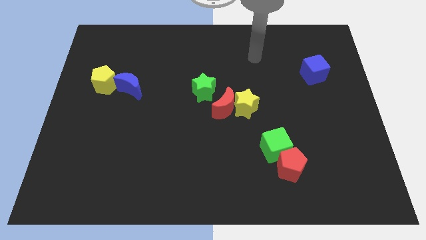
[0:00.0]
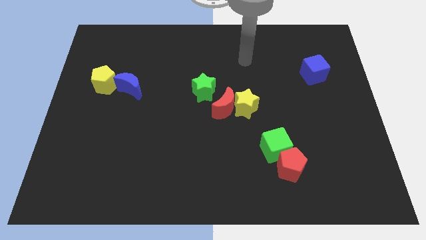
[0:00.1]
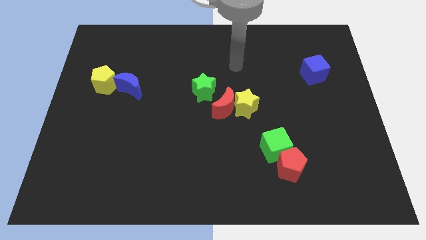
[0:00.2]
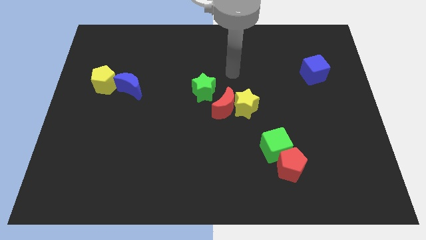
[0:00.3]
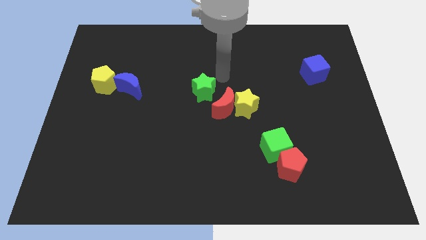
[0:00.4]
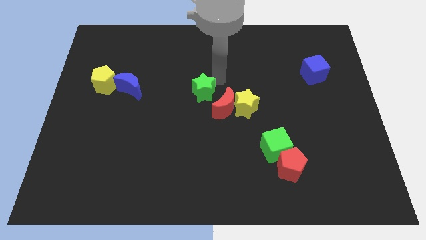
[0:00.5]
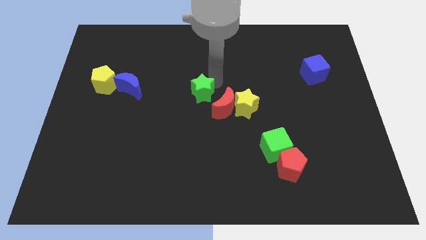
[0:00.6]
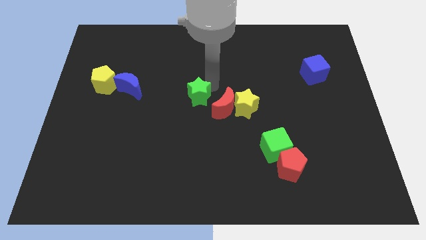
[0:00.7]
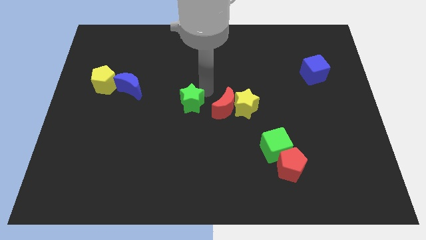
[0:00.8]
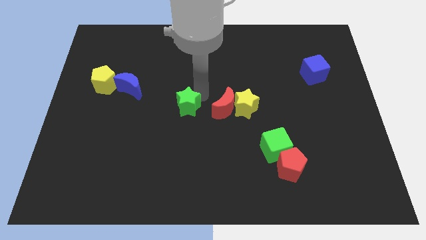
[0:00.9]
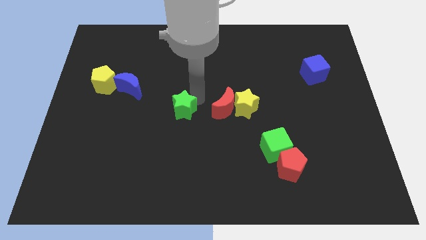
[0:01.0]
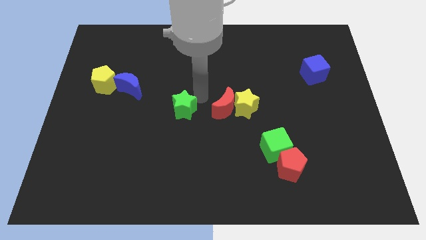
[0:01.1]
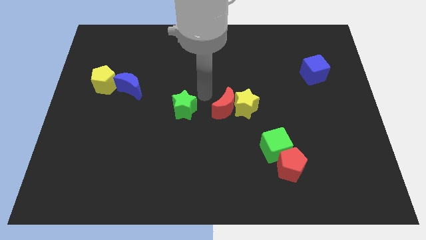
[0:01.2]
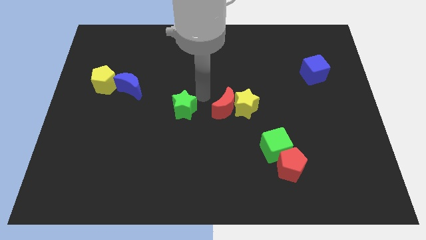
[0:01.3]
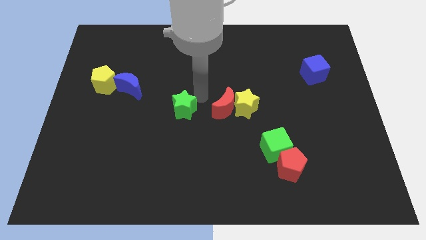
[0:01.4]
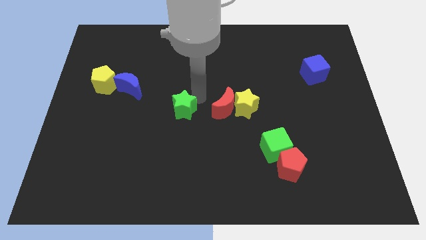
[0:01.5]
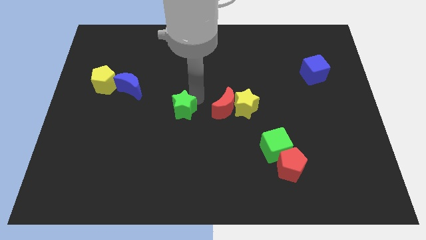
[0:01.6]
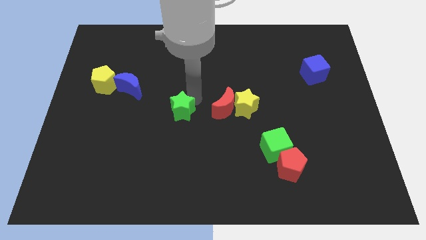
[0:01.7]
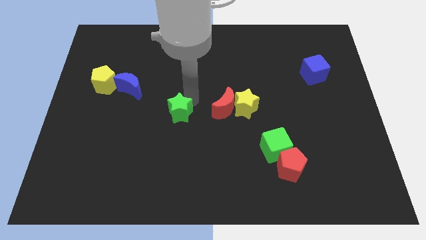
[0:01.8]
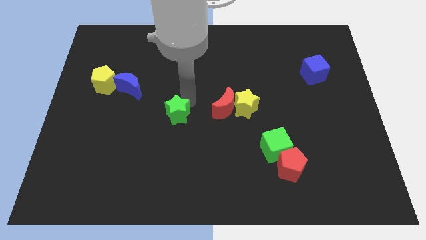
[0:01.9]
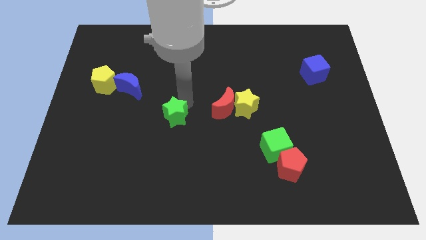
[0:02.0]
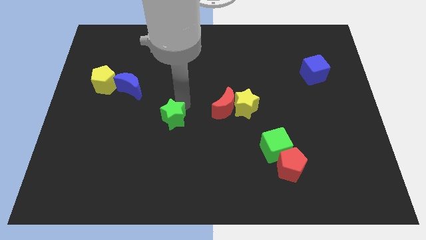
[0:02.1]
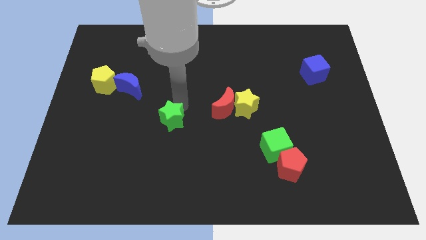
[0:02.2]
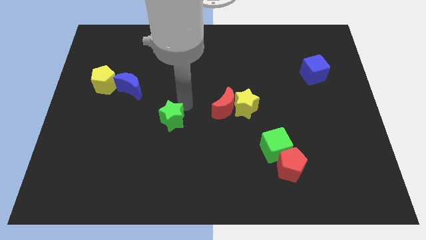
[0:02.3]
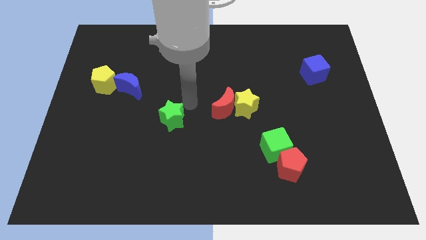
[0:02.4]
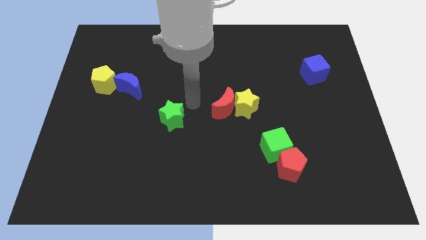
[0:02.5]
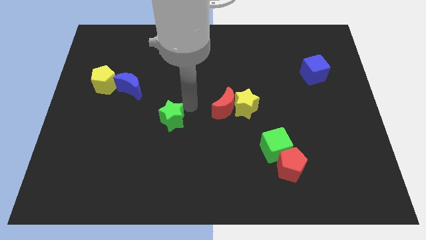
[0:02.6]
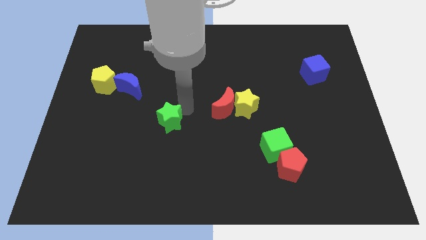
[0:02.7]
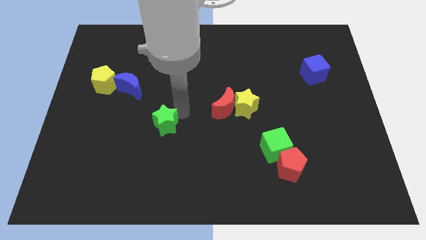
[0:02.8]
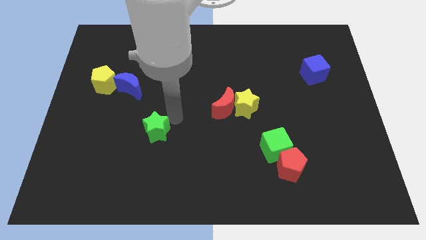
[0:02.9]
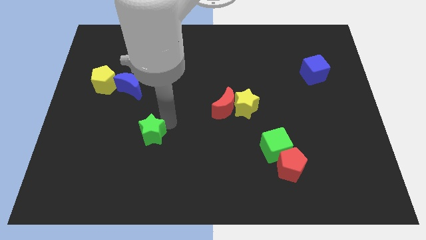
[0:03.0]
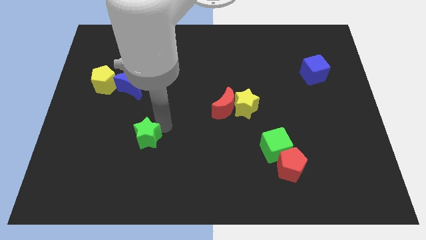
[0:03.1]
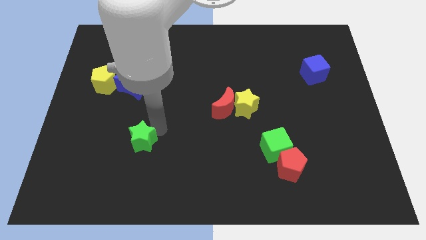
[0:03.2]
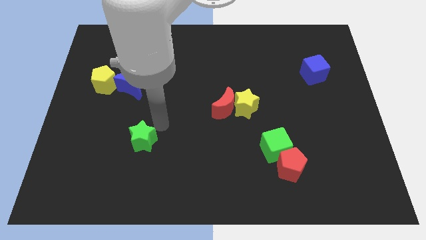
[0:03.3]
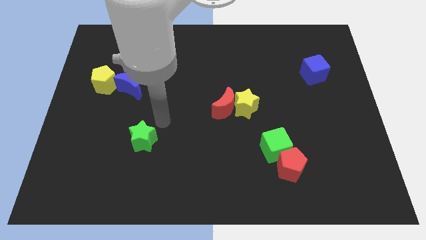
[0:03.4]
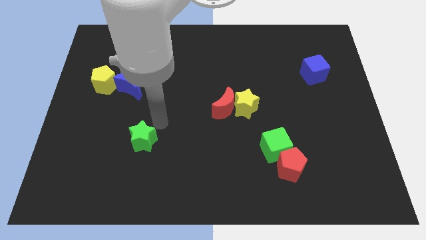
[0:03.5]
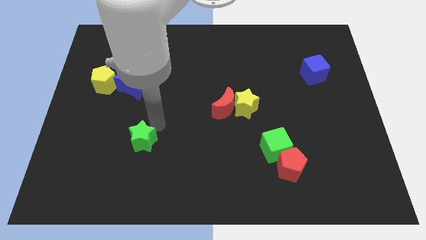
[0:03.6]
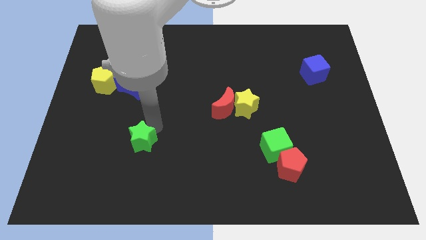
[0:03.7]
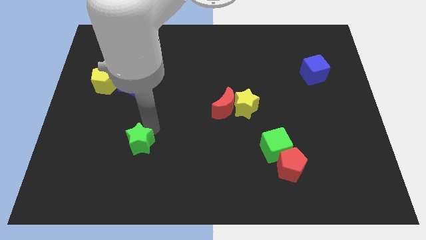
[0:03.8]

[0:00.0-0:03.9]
push the green star down and to the left

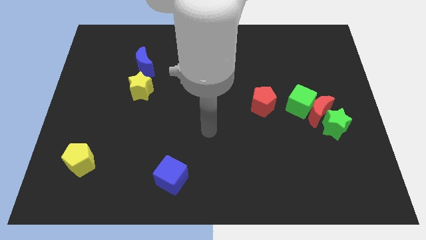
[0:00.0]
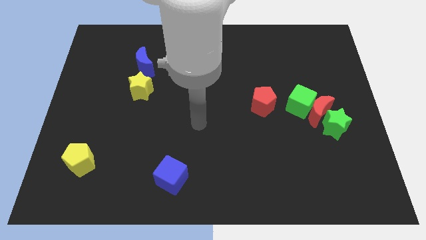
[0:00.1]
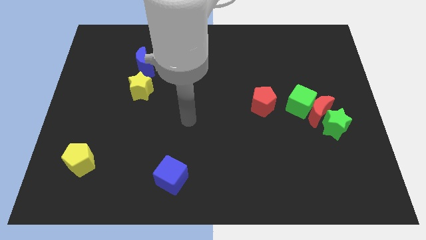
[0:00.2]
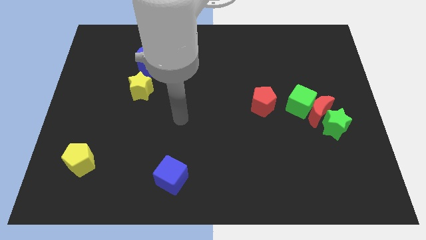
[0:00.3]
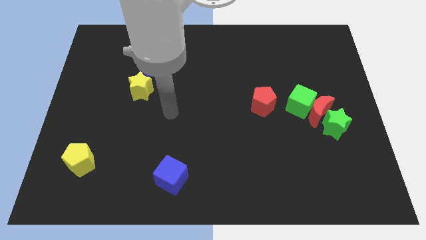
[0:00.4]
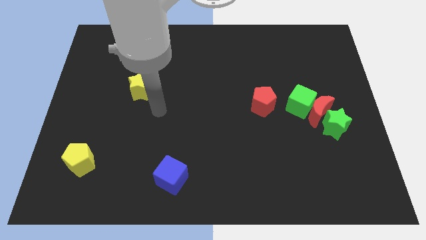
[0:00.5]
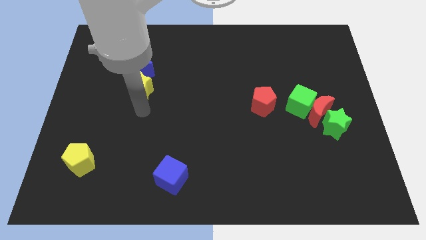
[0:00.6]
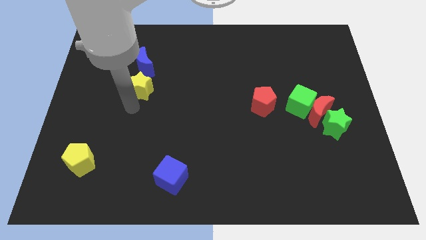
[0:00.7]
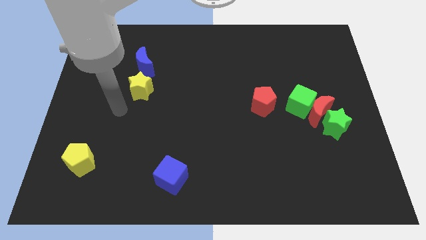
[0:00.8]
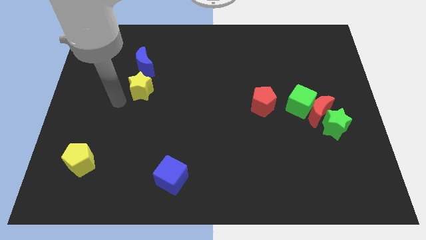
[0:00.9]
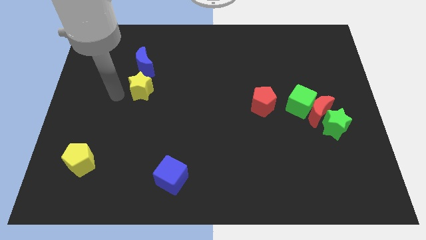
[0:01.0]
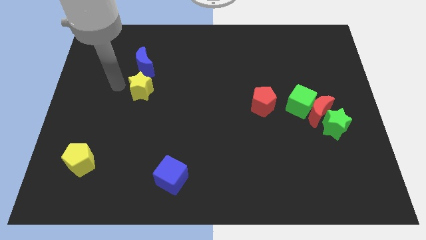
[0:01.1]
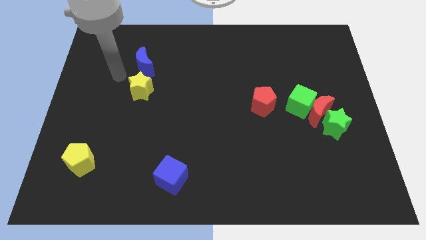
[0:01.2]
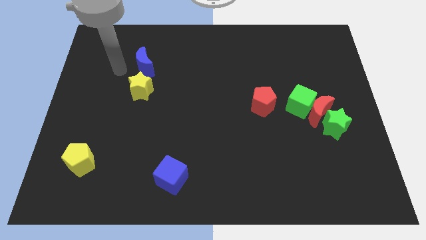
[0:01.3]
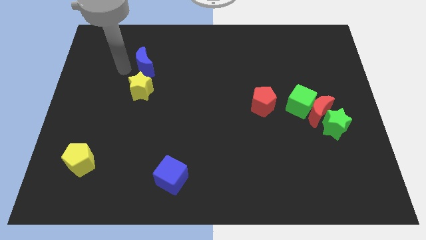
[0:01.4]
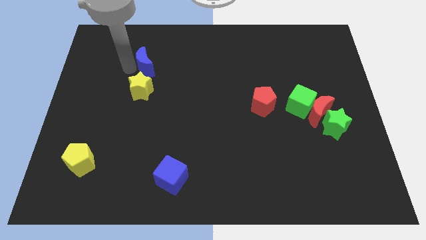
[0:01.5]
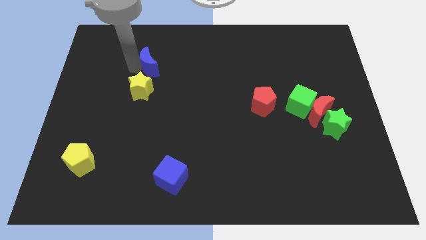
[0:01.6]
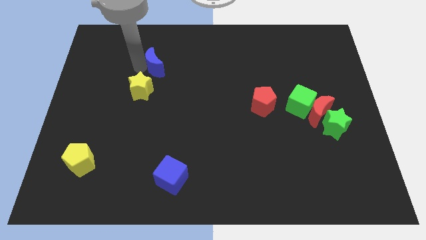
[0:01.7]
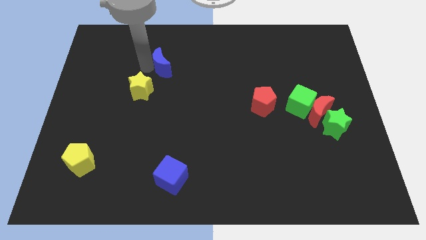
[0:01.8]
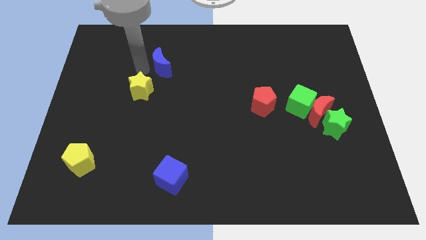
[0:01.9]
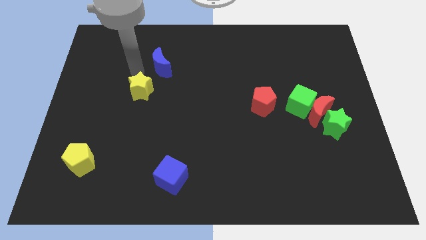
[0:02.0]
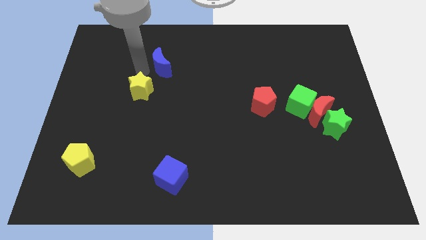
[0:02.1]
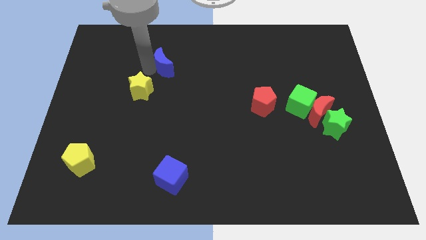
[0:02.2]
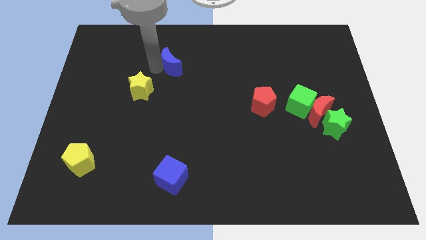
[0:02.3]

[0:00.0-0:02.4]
move the blue moon a little bit to the right

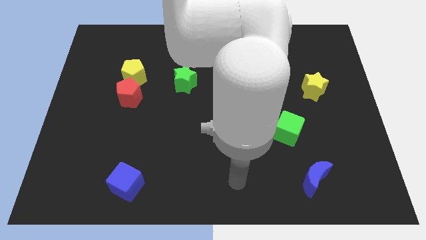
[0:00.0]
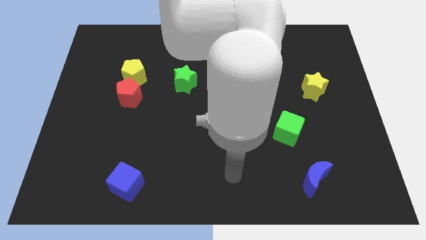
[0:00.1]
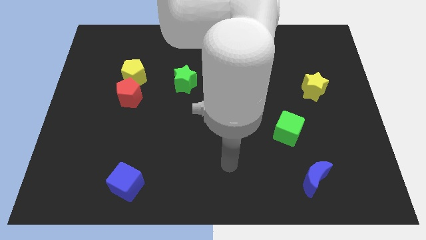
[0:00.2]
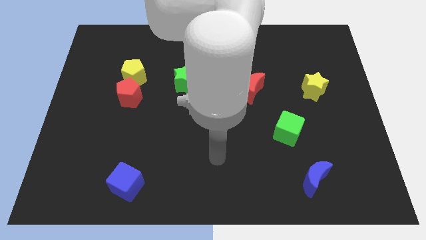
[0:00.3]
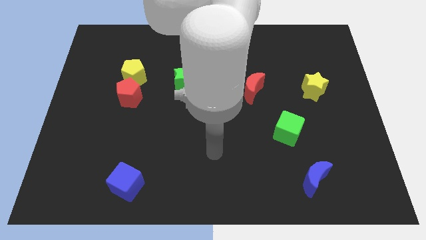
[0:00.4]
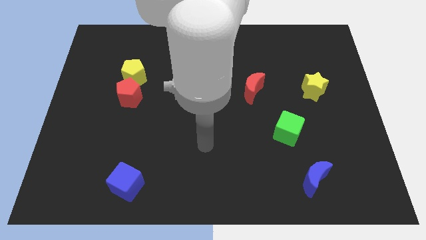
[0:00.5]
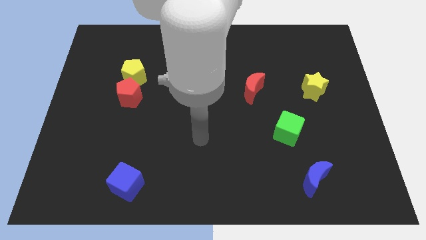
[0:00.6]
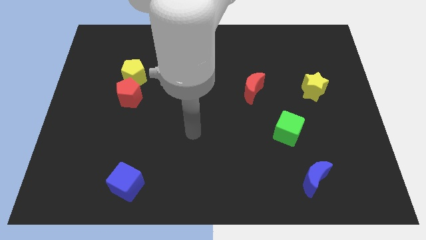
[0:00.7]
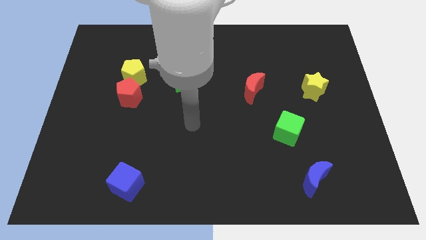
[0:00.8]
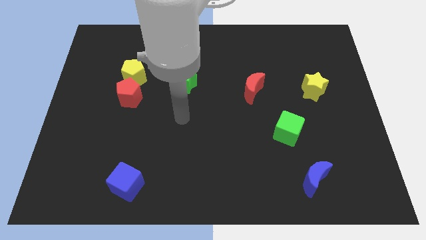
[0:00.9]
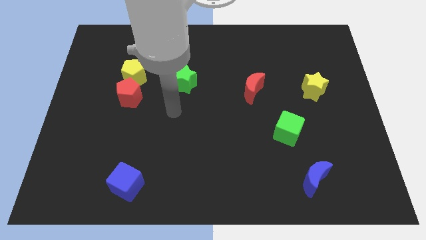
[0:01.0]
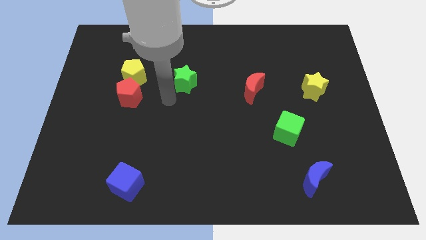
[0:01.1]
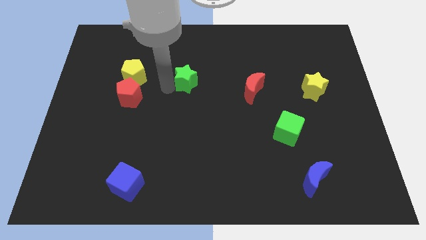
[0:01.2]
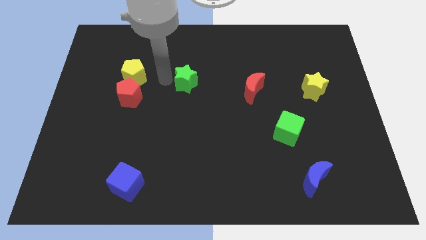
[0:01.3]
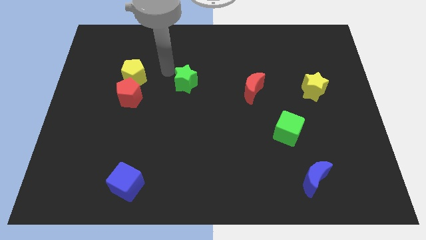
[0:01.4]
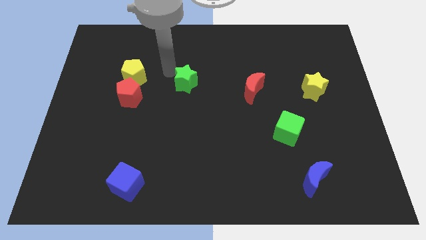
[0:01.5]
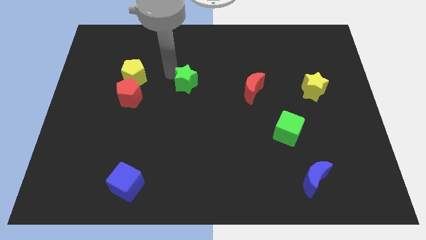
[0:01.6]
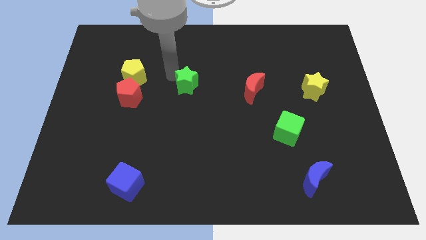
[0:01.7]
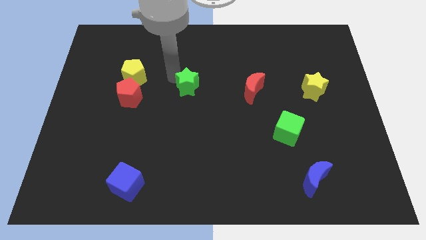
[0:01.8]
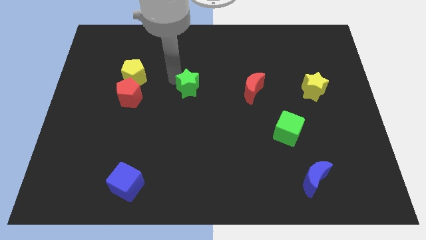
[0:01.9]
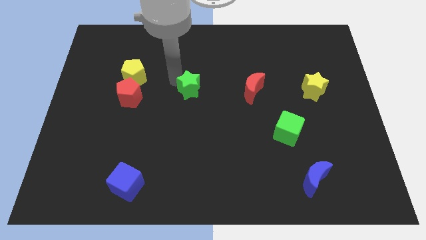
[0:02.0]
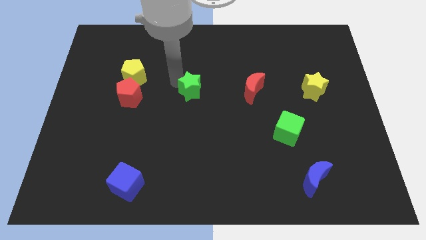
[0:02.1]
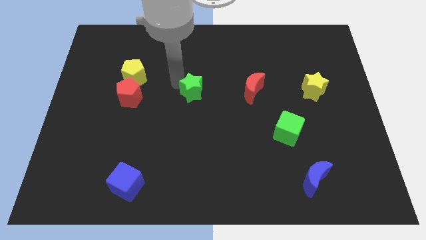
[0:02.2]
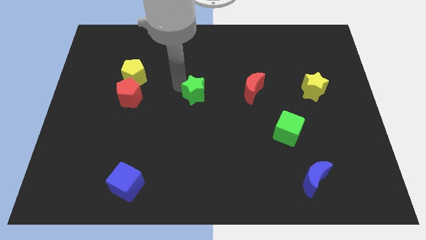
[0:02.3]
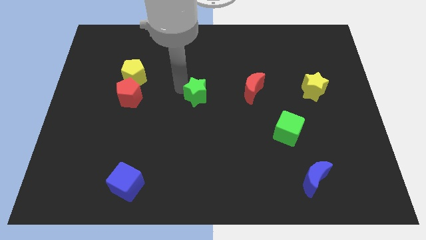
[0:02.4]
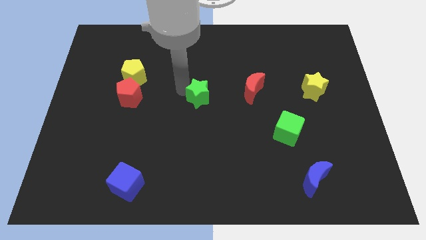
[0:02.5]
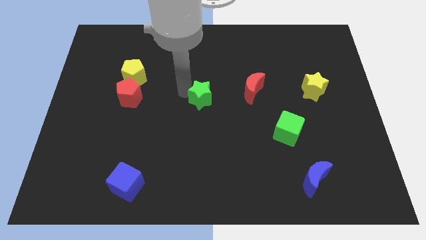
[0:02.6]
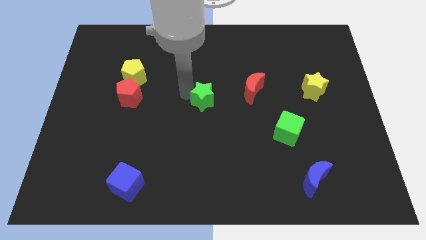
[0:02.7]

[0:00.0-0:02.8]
move the green star downwards and then to the right a little
